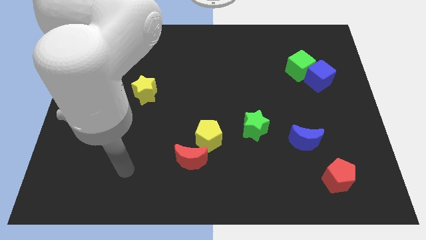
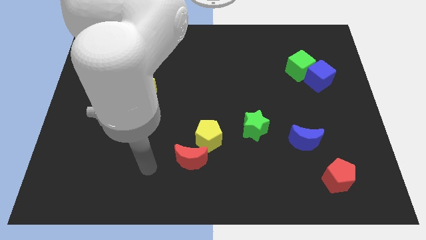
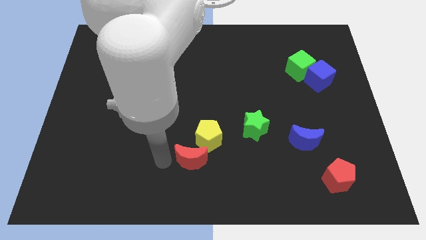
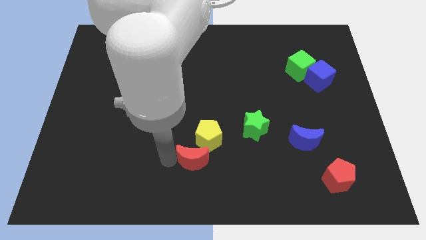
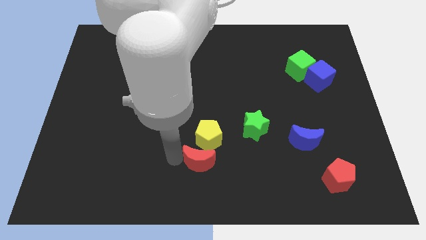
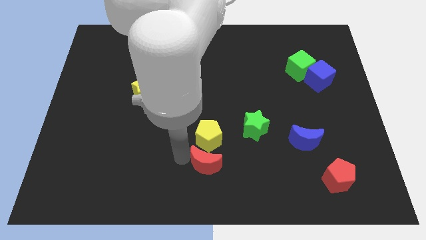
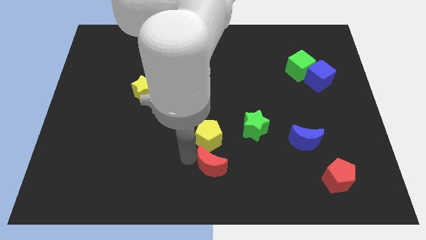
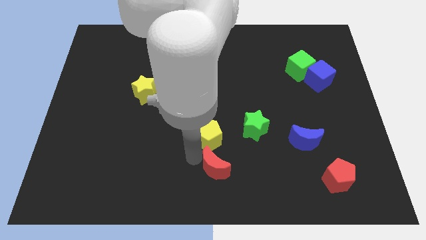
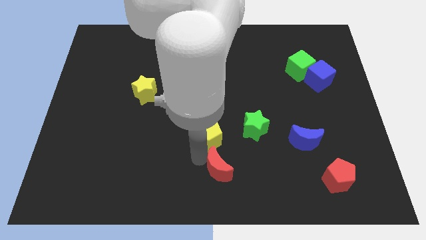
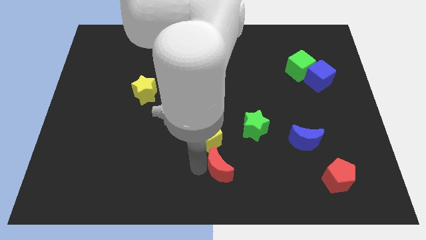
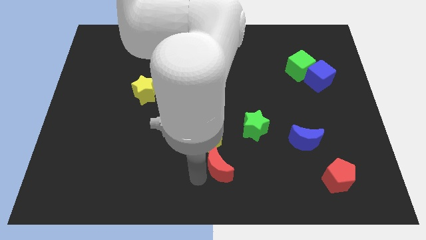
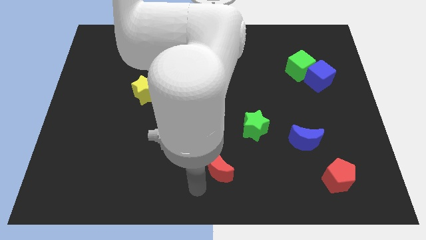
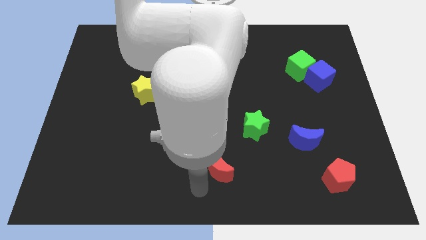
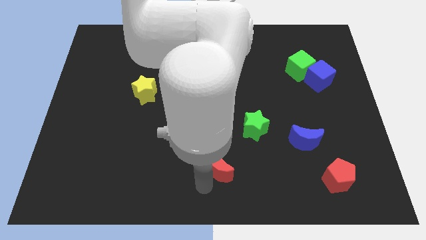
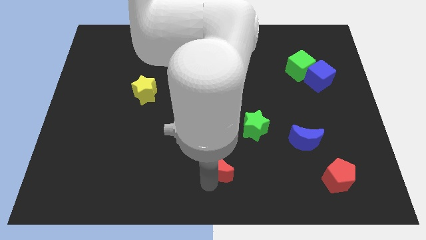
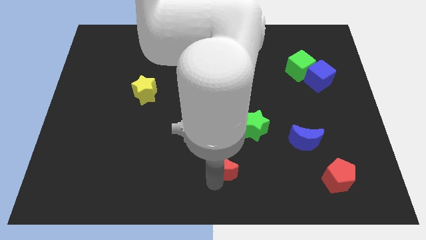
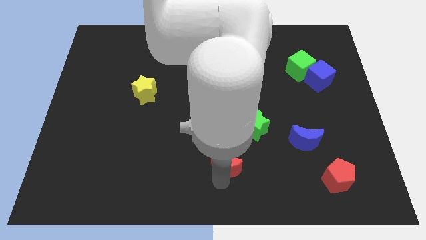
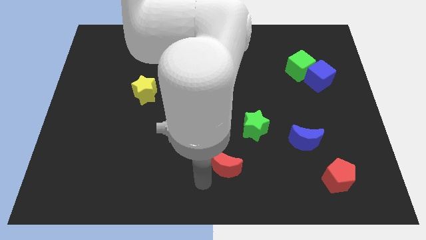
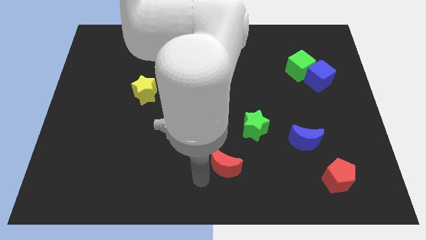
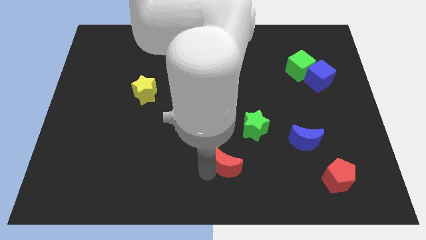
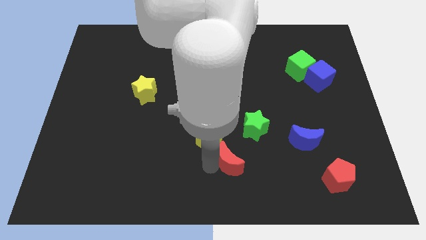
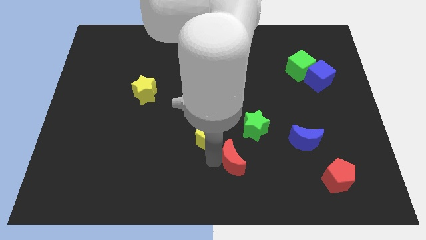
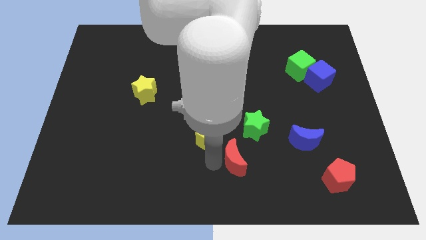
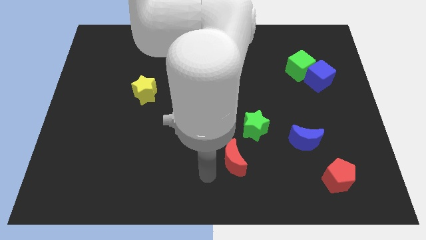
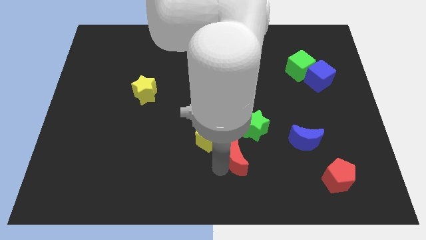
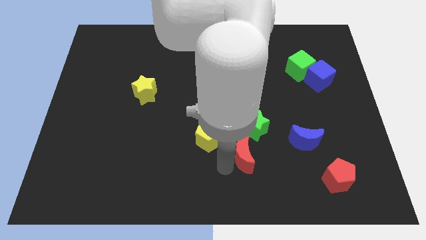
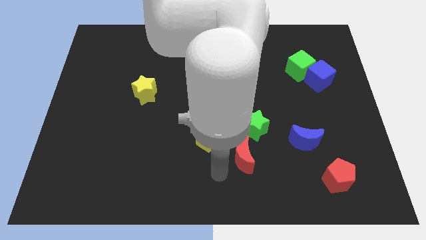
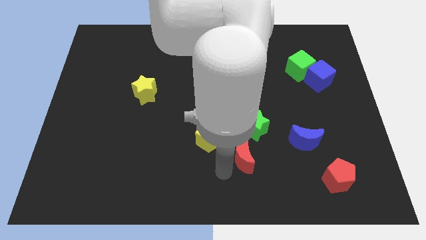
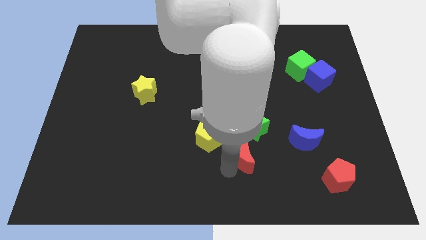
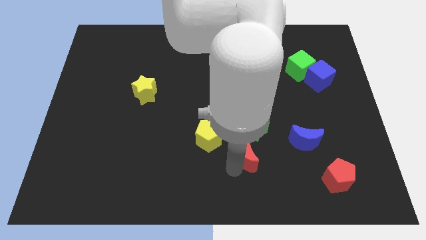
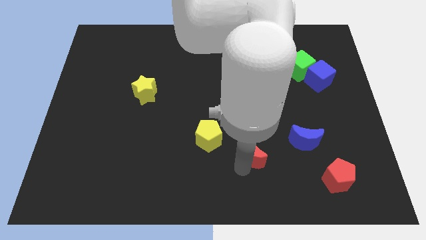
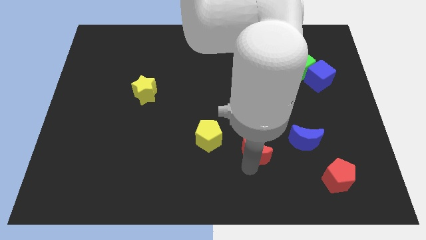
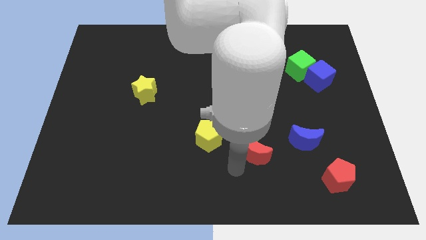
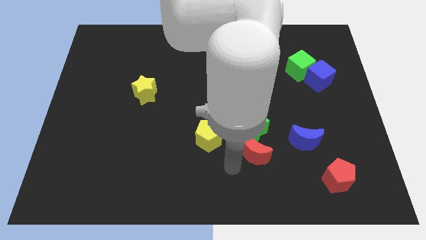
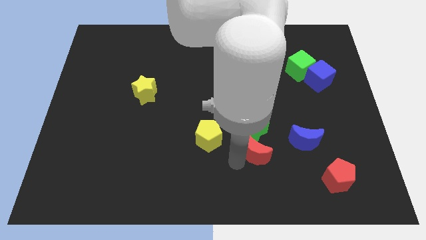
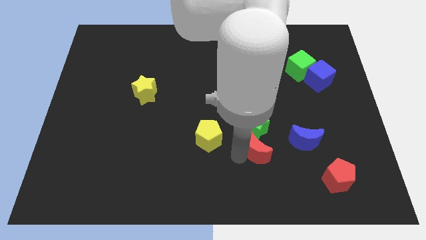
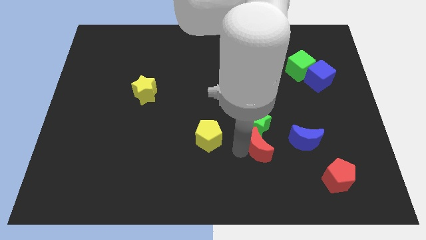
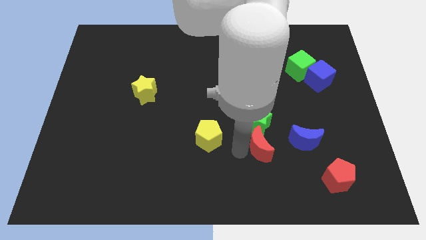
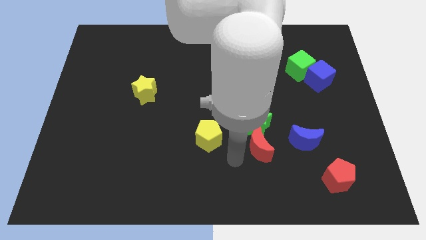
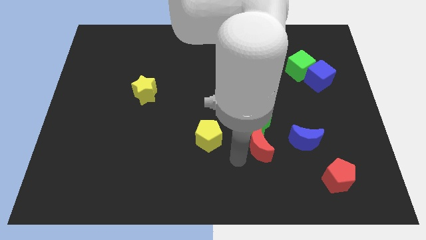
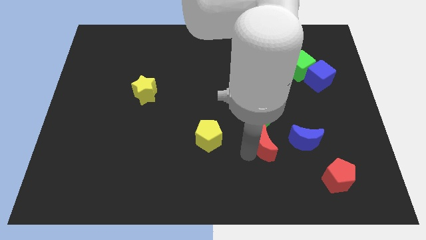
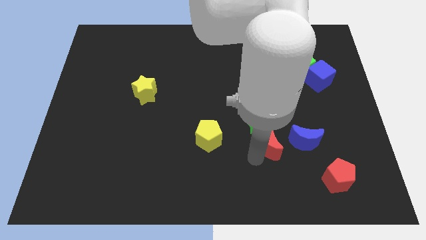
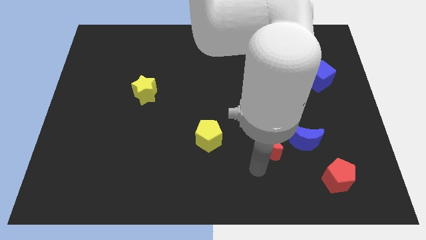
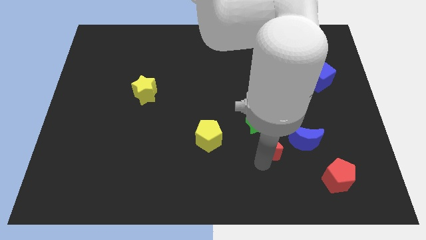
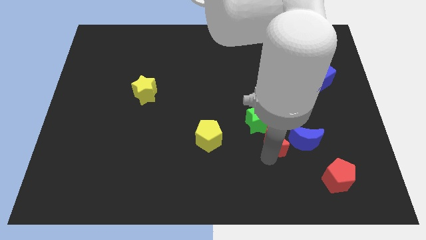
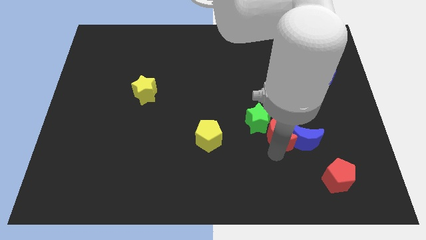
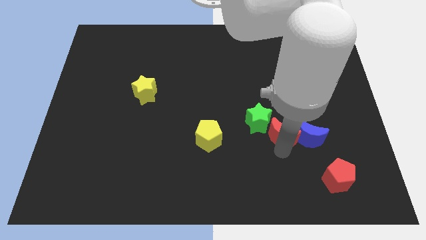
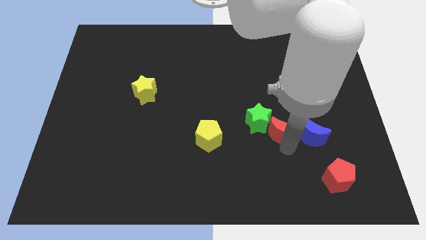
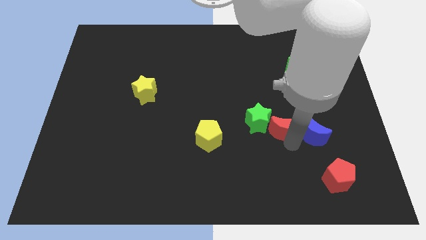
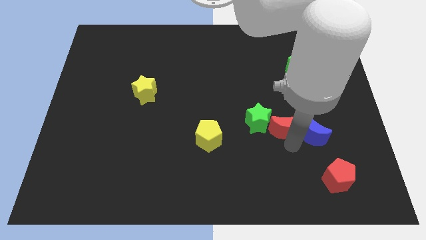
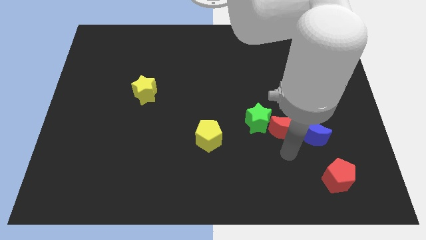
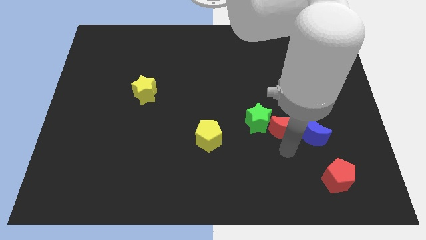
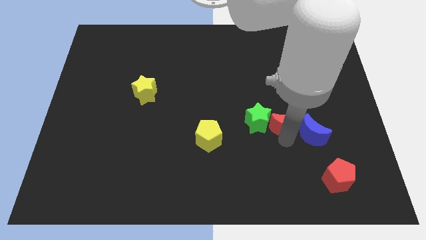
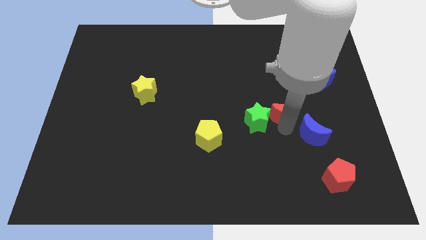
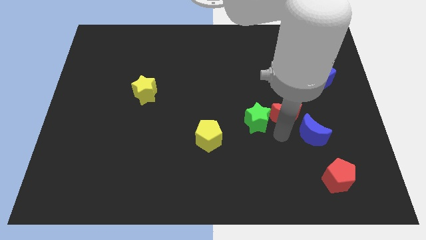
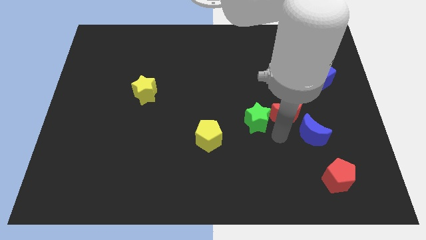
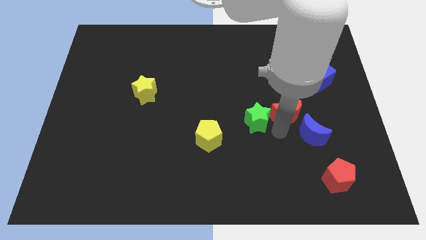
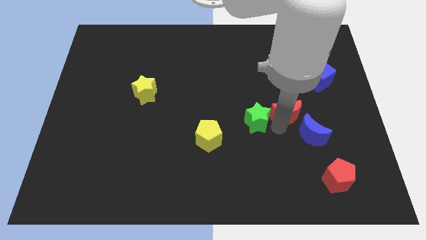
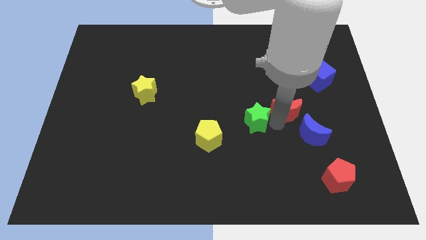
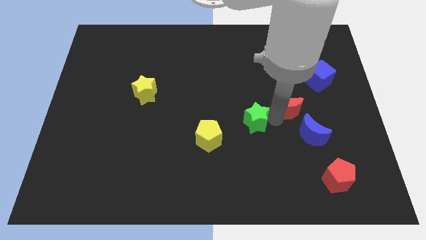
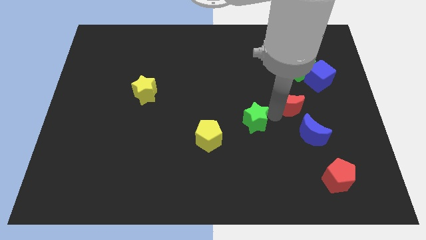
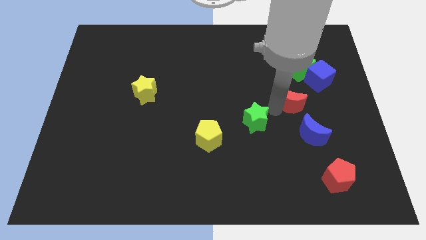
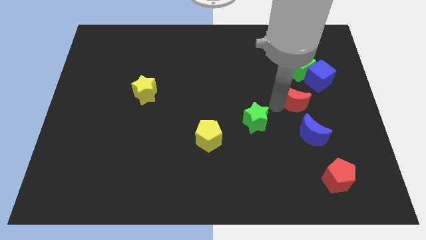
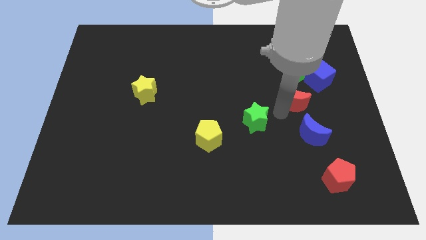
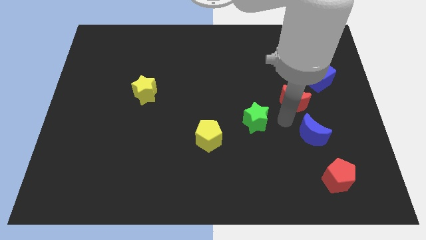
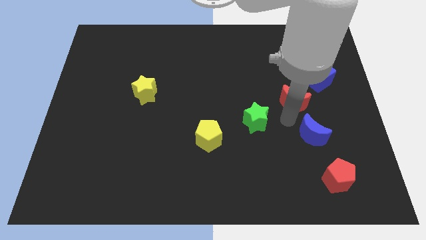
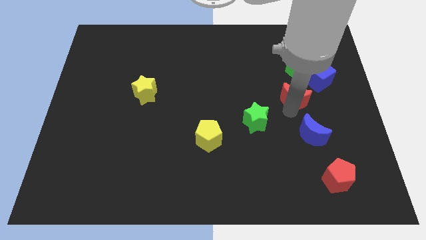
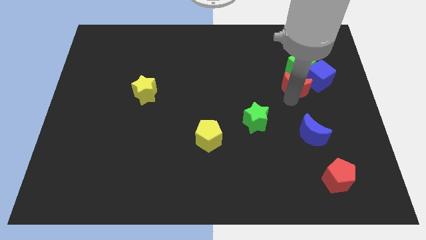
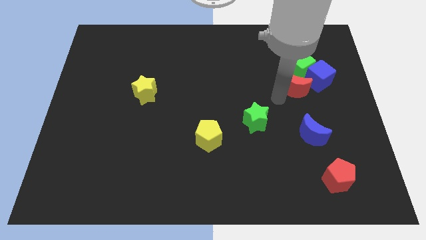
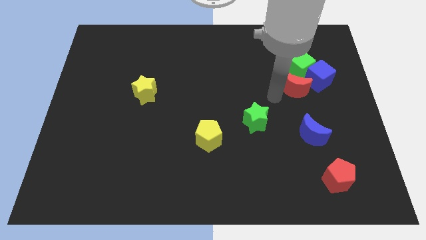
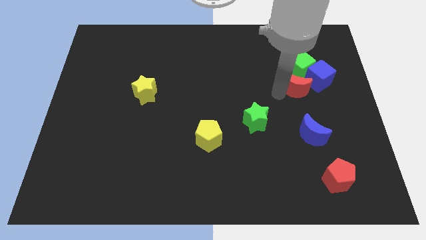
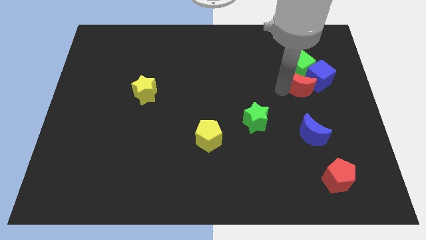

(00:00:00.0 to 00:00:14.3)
slide the red moon close to the blue cube

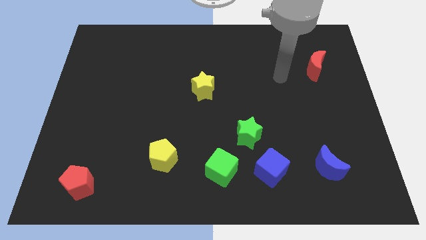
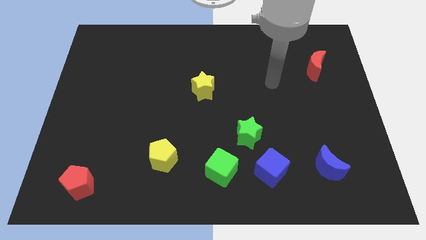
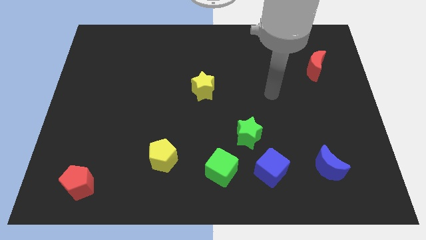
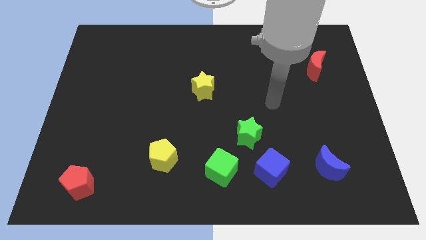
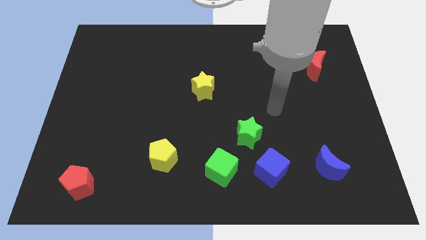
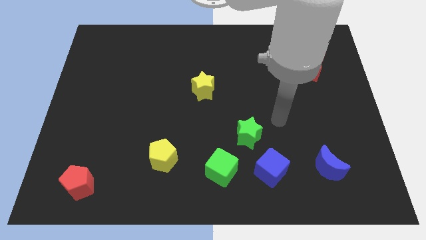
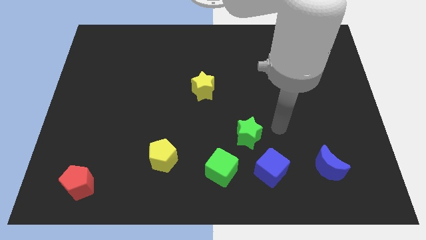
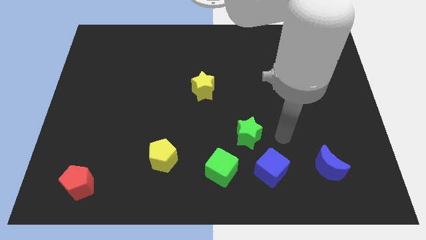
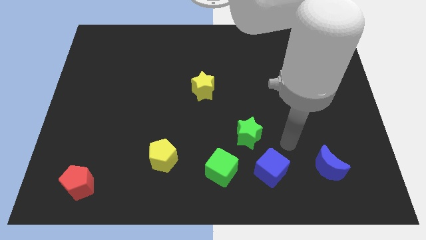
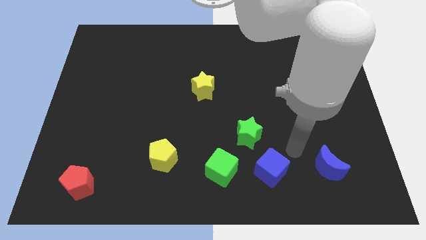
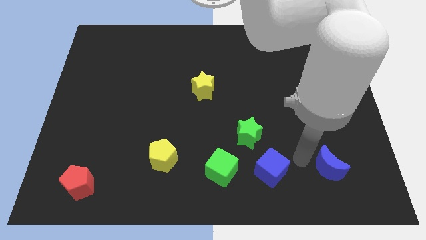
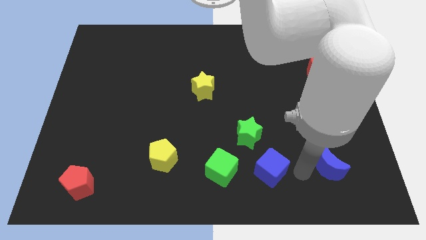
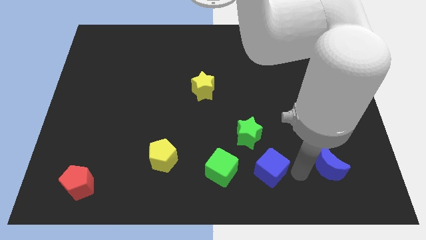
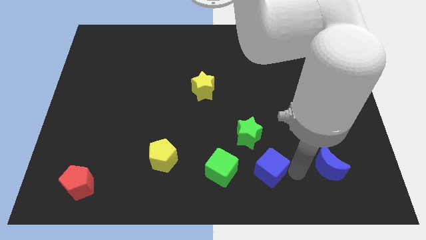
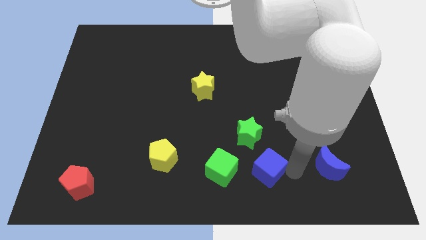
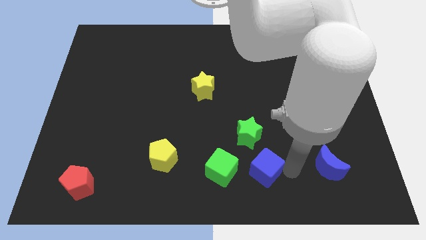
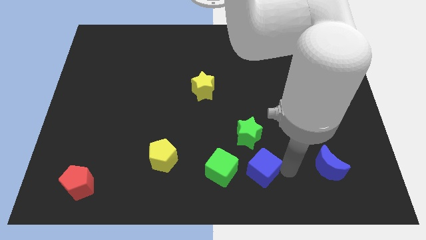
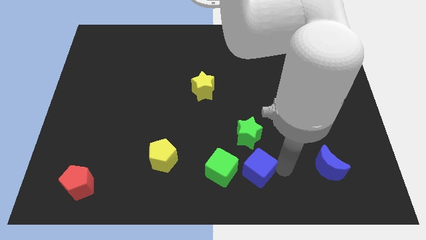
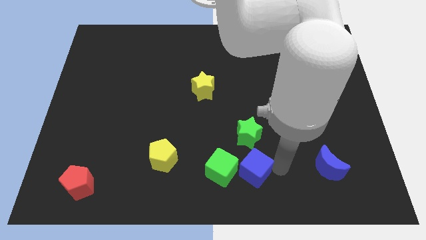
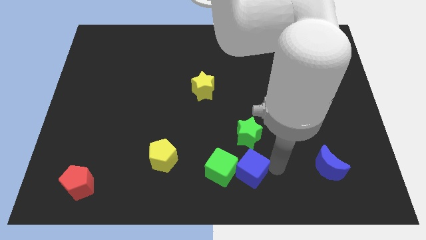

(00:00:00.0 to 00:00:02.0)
slide the blue cube to the green cube
